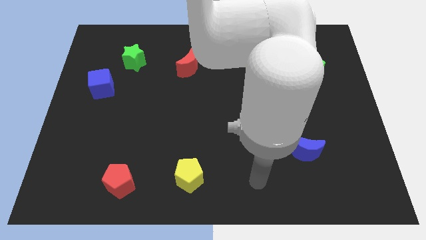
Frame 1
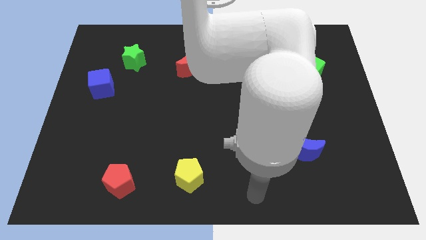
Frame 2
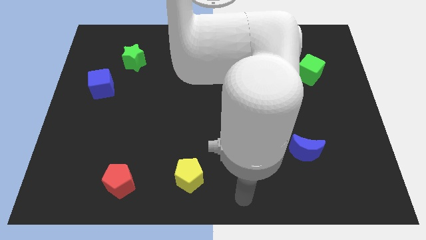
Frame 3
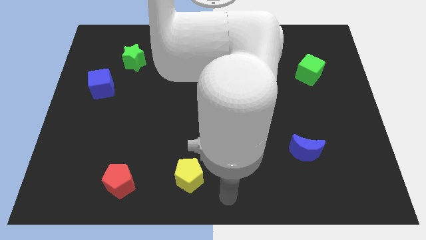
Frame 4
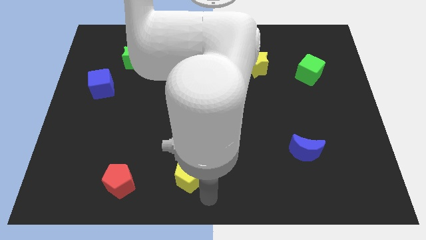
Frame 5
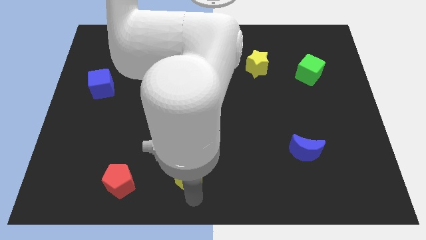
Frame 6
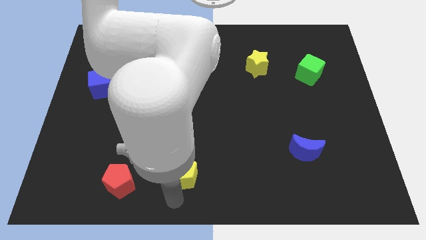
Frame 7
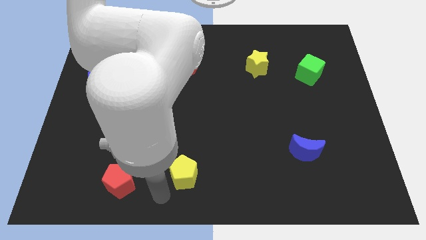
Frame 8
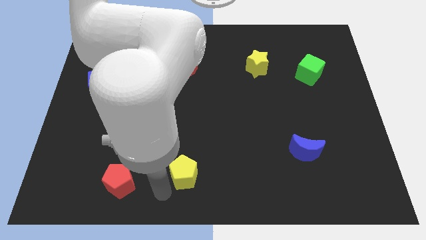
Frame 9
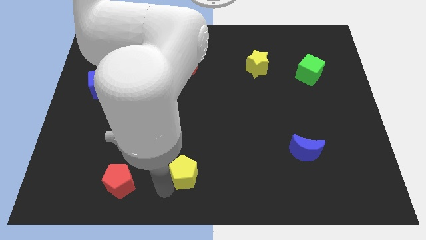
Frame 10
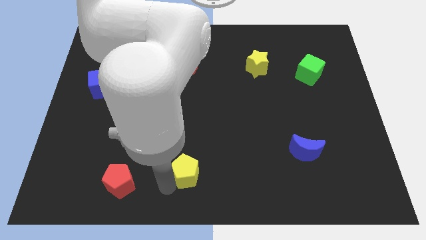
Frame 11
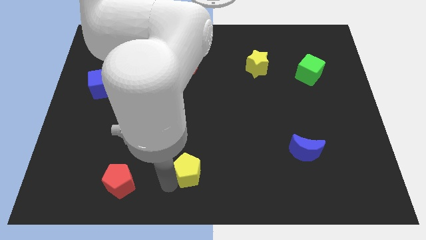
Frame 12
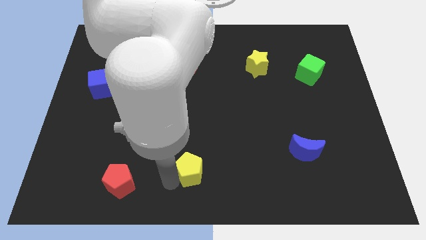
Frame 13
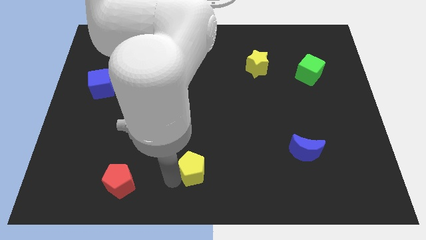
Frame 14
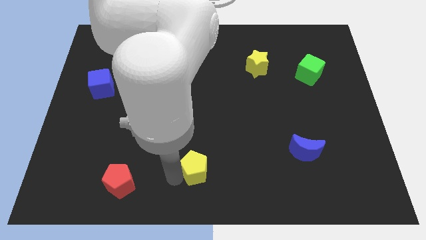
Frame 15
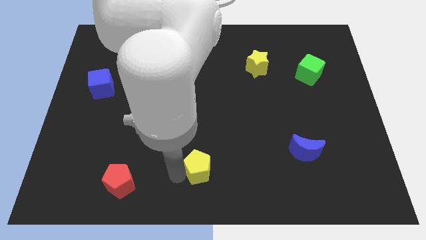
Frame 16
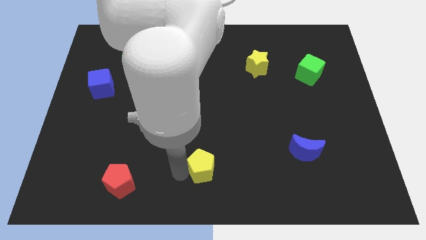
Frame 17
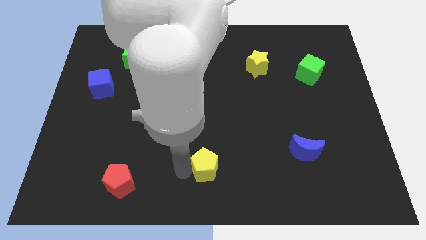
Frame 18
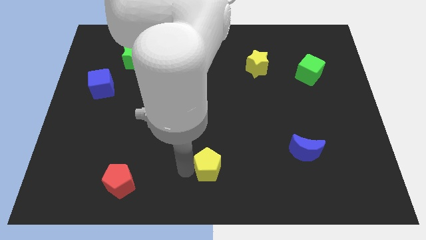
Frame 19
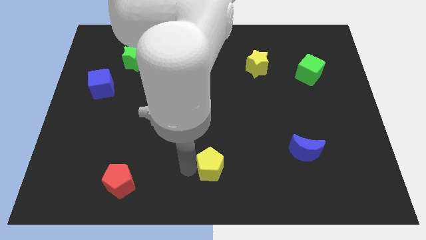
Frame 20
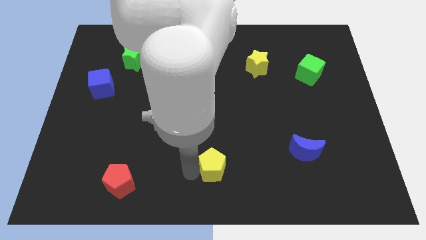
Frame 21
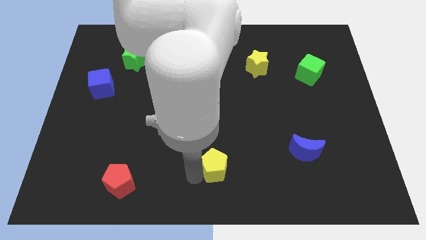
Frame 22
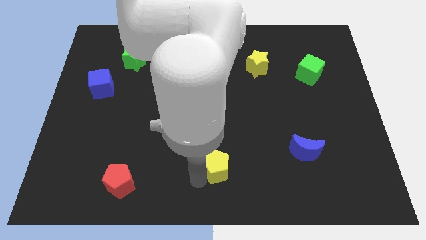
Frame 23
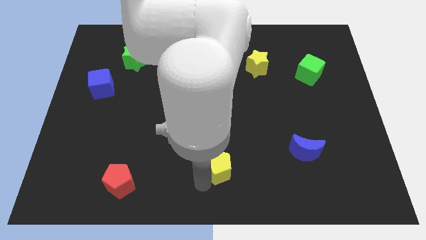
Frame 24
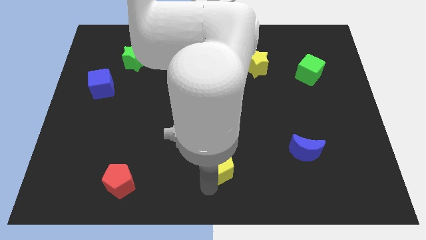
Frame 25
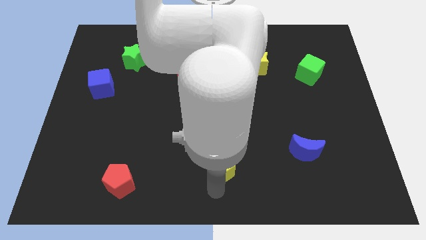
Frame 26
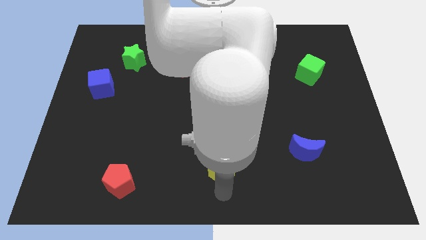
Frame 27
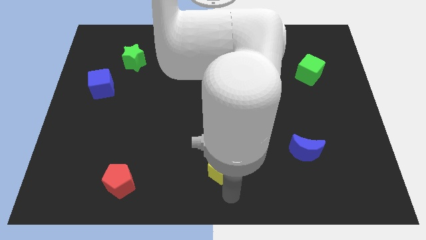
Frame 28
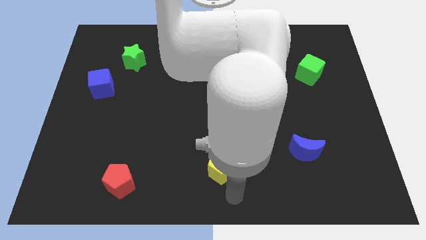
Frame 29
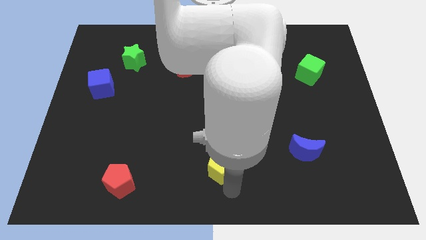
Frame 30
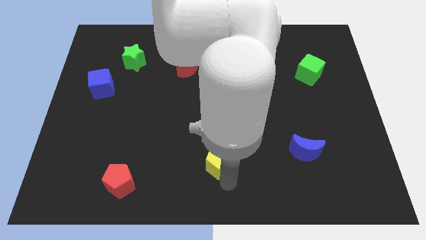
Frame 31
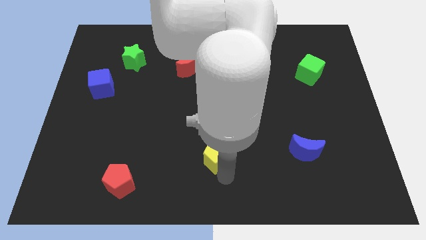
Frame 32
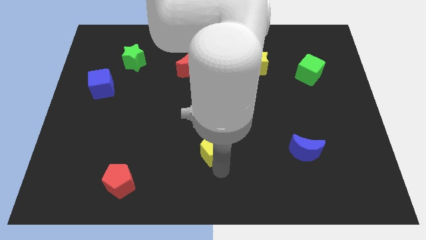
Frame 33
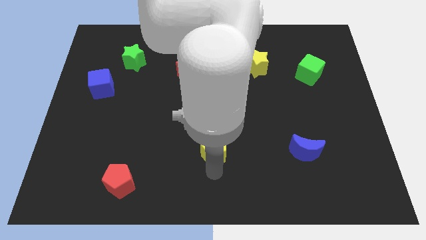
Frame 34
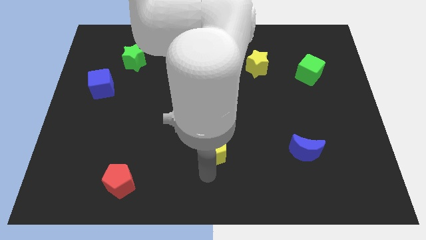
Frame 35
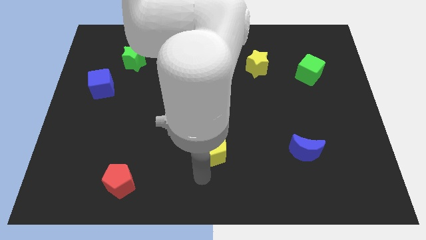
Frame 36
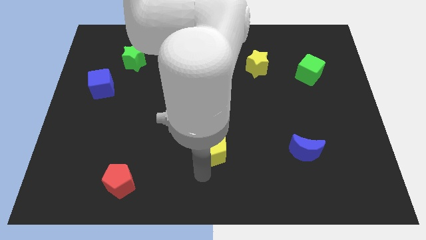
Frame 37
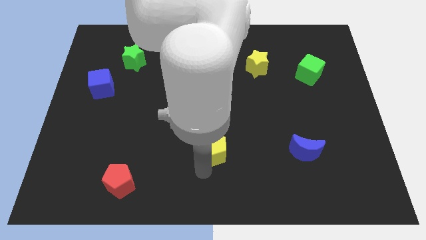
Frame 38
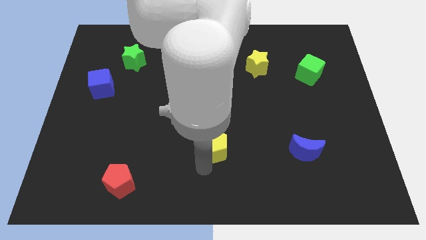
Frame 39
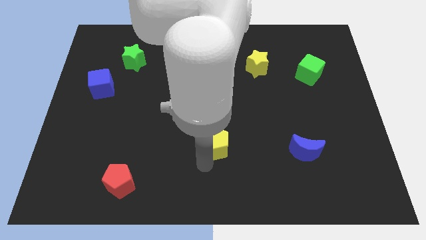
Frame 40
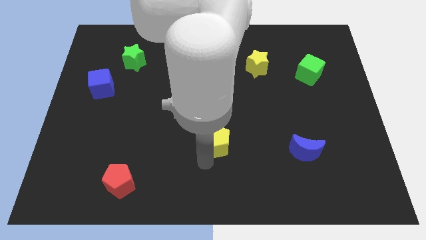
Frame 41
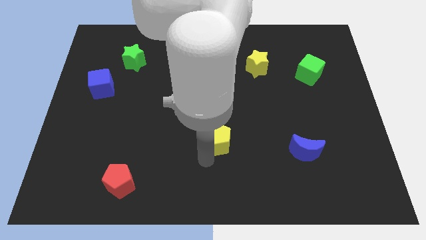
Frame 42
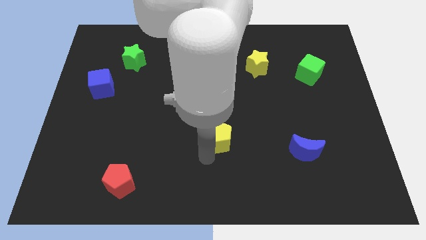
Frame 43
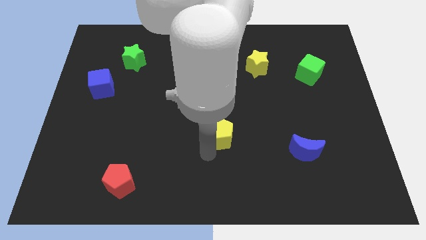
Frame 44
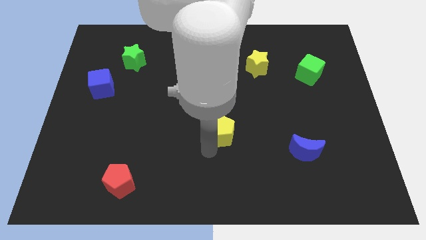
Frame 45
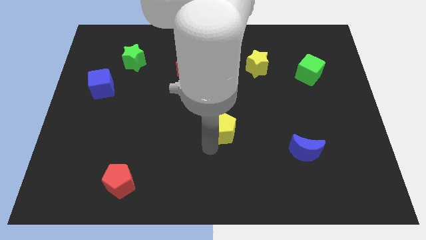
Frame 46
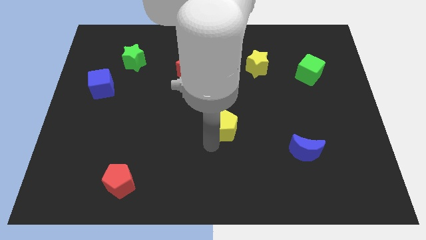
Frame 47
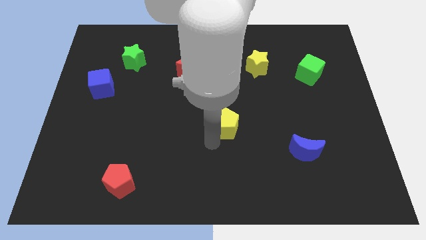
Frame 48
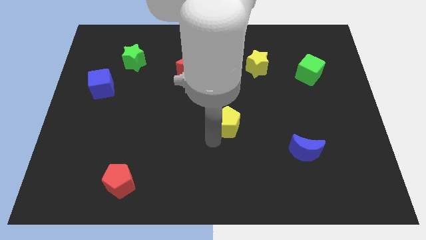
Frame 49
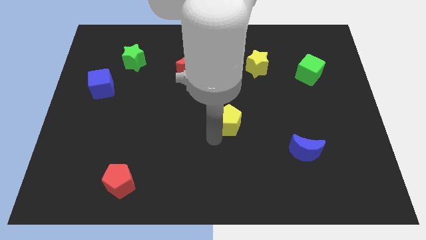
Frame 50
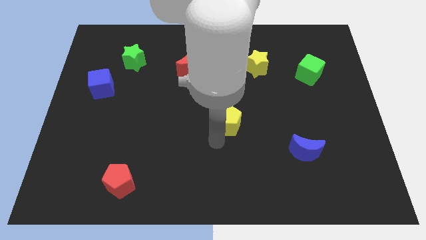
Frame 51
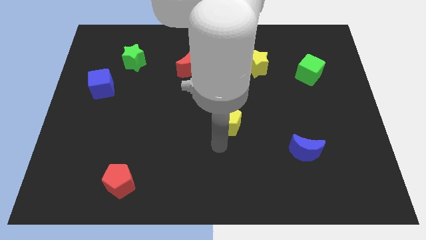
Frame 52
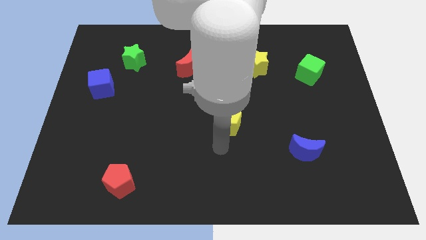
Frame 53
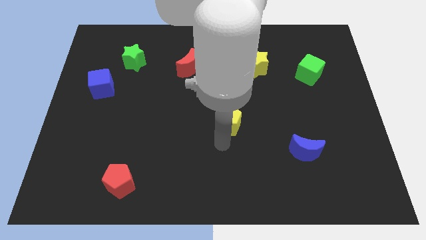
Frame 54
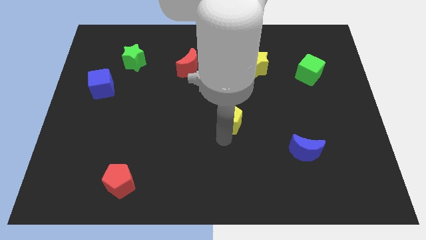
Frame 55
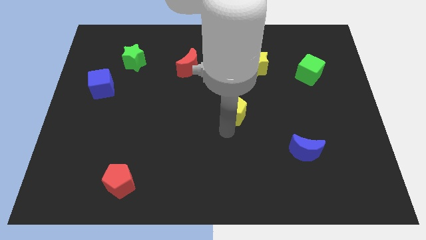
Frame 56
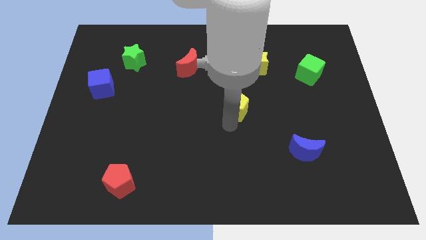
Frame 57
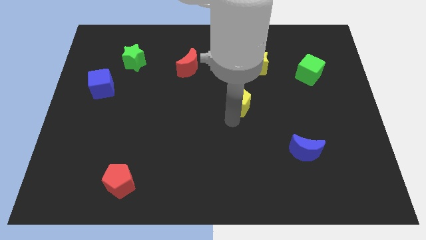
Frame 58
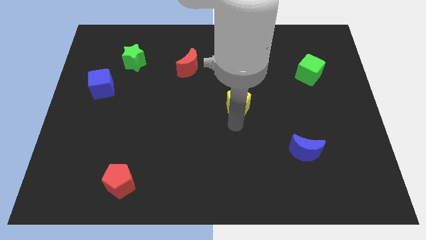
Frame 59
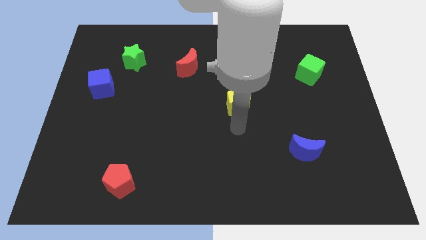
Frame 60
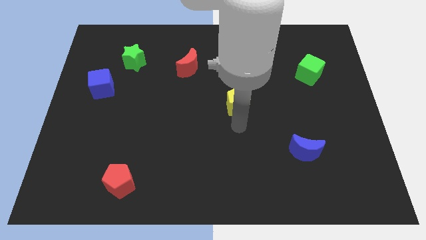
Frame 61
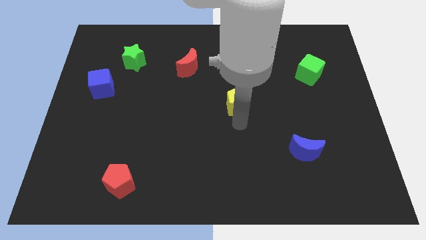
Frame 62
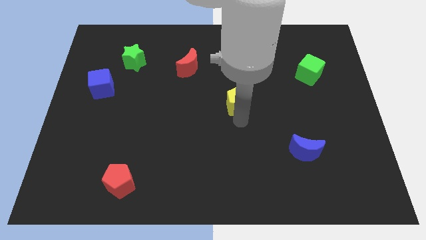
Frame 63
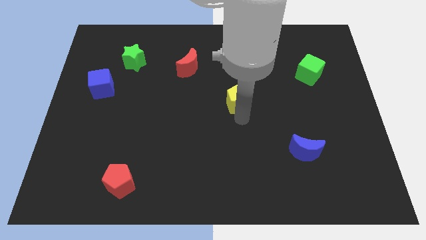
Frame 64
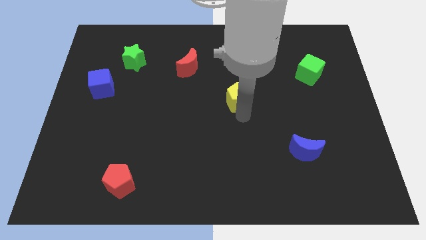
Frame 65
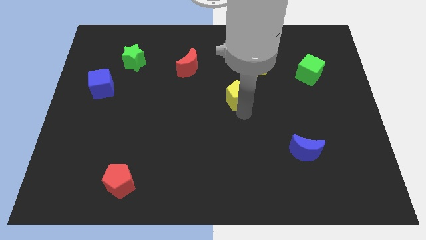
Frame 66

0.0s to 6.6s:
slide the yellow pentagon to the bottom left of the yellow star

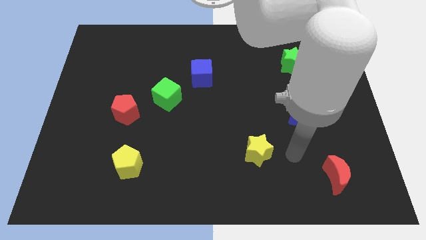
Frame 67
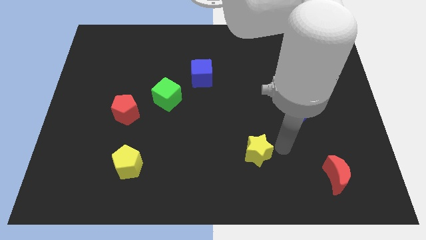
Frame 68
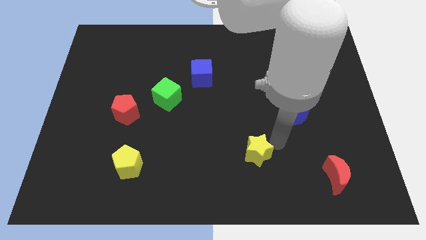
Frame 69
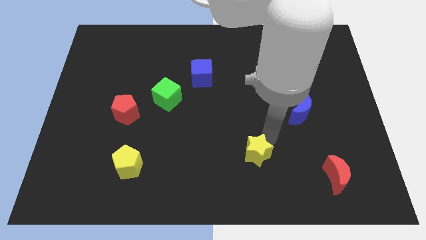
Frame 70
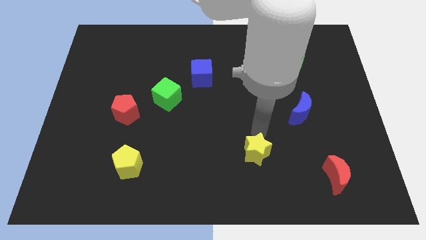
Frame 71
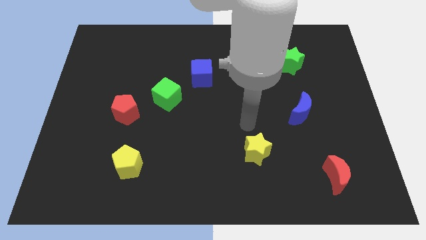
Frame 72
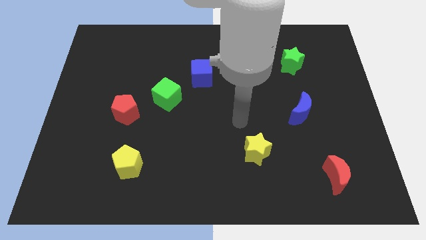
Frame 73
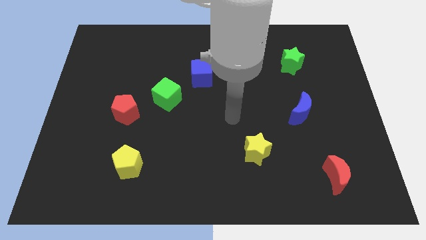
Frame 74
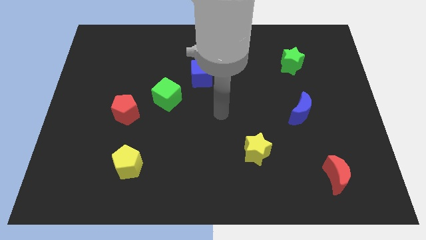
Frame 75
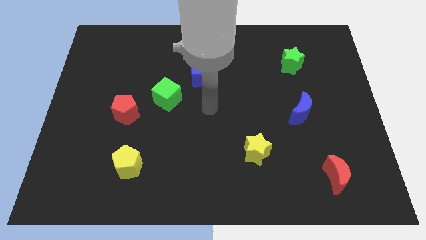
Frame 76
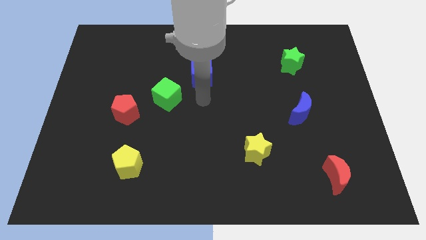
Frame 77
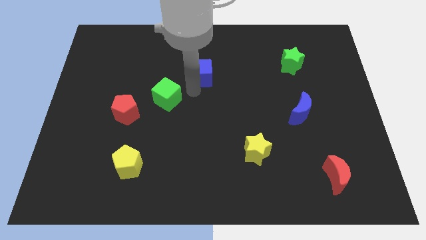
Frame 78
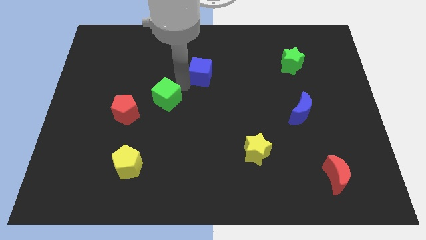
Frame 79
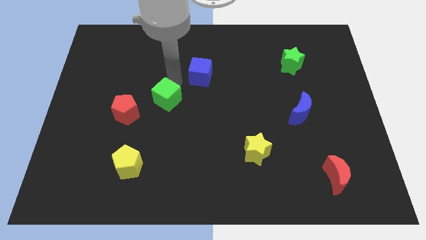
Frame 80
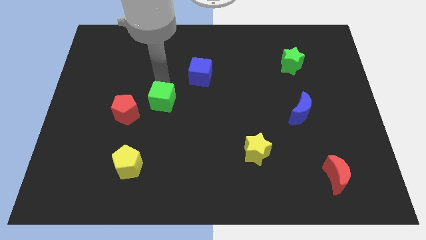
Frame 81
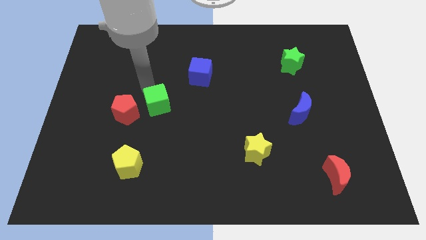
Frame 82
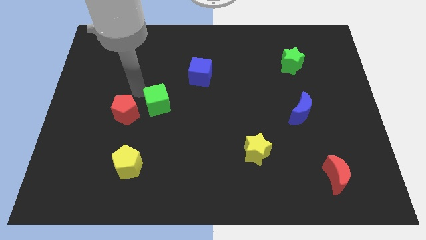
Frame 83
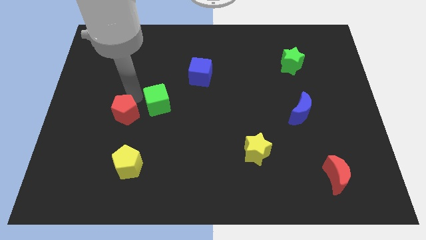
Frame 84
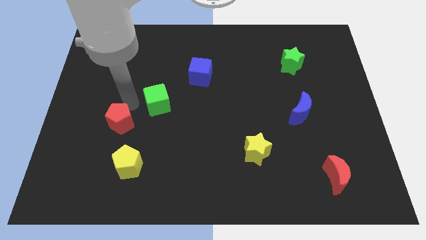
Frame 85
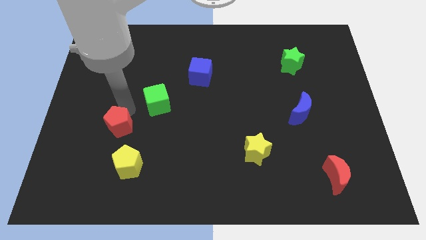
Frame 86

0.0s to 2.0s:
move the red pentagon to the top left side of the yellow pentagon
